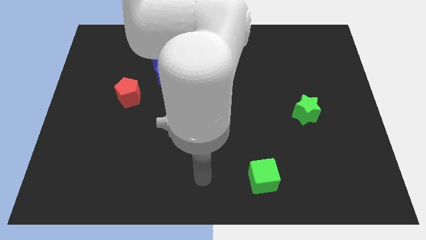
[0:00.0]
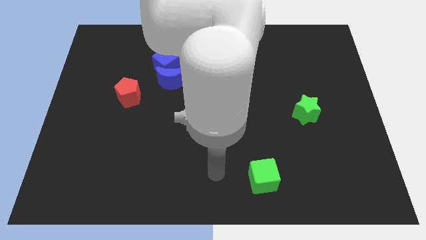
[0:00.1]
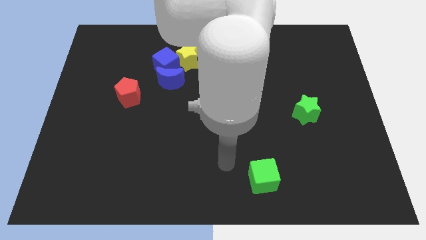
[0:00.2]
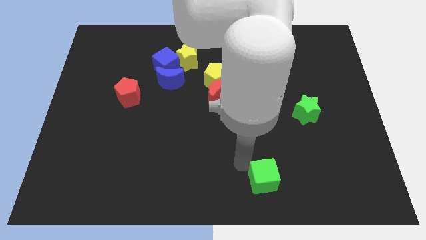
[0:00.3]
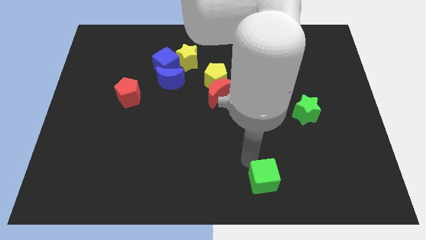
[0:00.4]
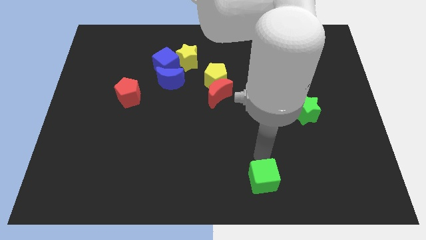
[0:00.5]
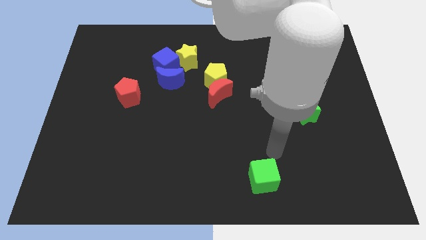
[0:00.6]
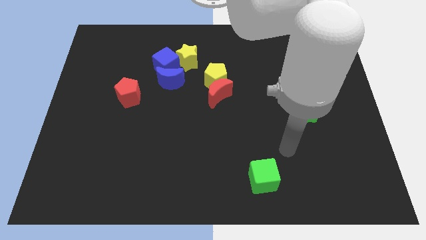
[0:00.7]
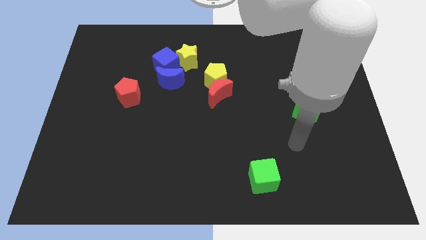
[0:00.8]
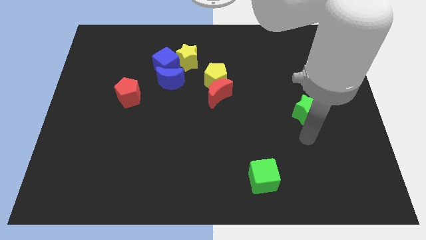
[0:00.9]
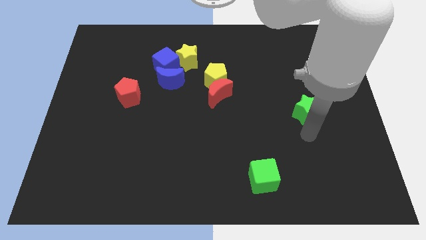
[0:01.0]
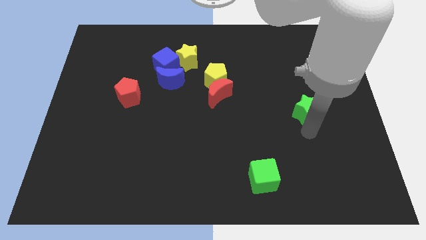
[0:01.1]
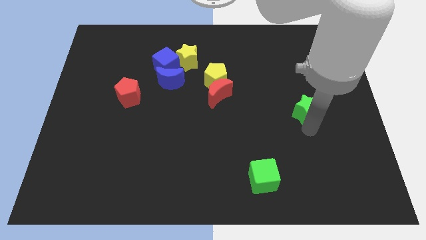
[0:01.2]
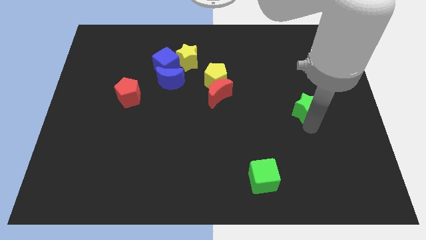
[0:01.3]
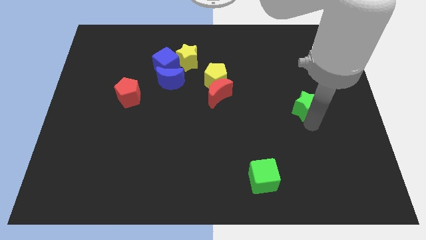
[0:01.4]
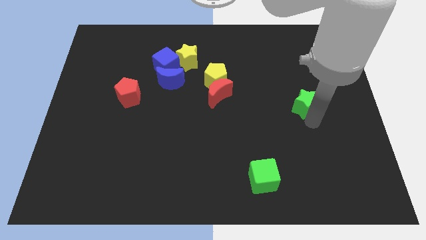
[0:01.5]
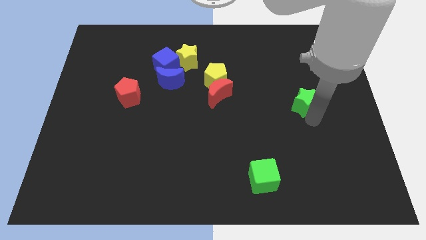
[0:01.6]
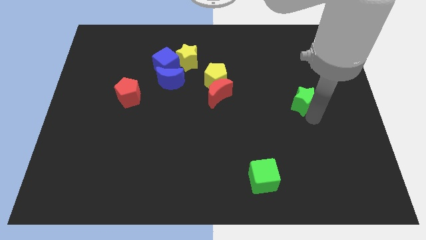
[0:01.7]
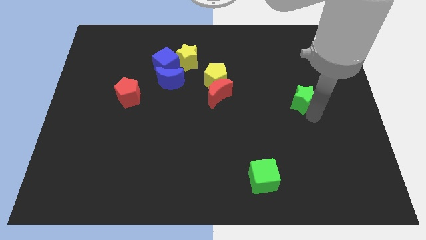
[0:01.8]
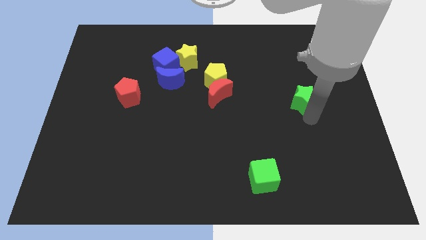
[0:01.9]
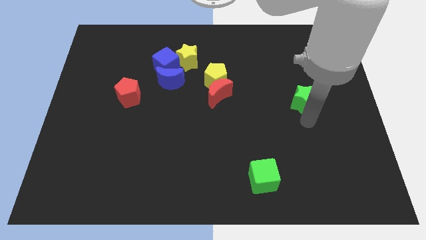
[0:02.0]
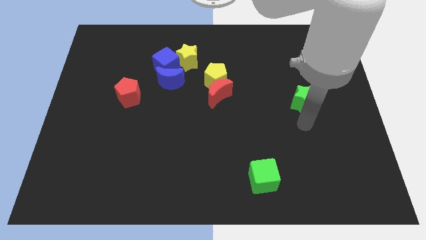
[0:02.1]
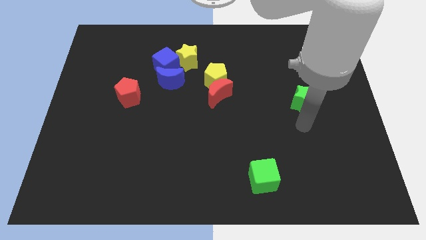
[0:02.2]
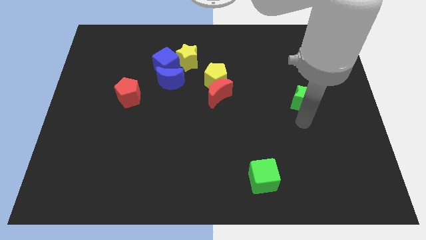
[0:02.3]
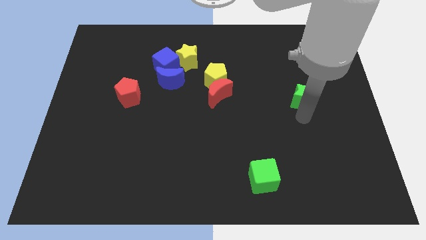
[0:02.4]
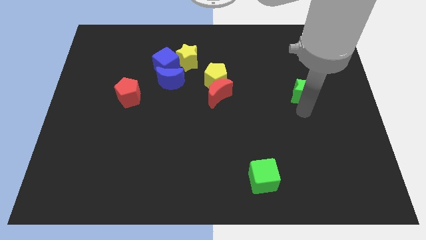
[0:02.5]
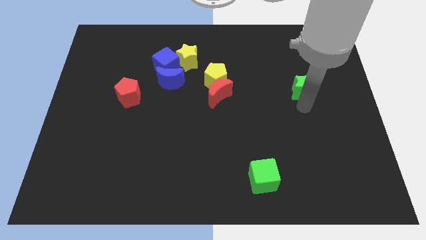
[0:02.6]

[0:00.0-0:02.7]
move the green star upwards somewhat

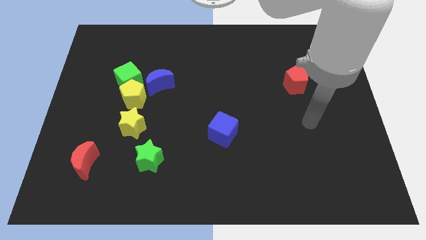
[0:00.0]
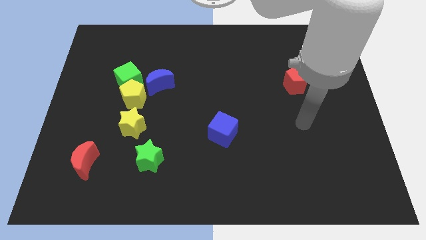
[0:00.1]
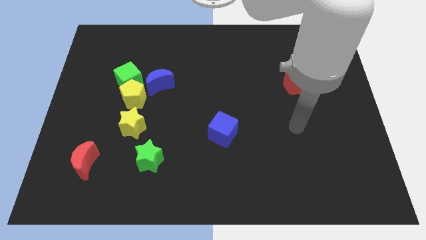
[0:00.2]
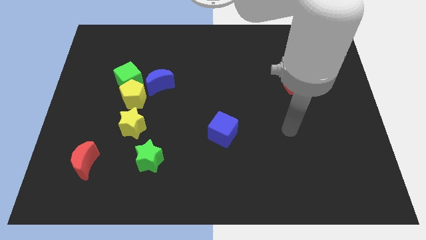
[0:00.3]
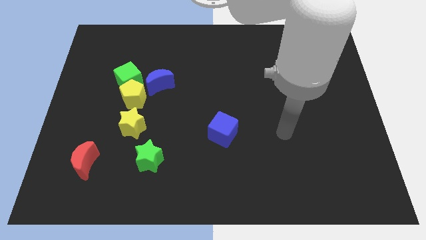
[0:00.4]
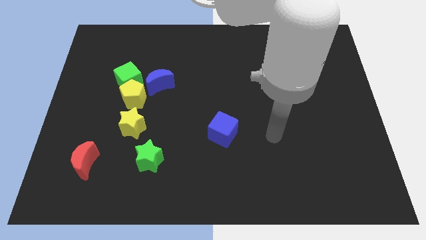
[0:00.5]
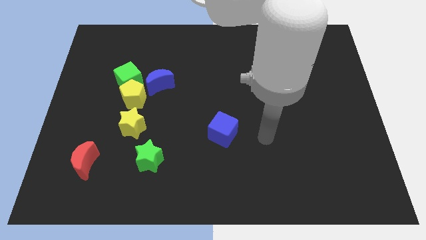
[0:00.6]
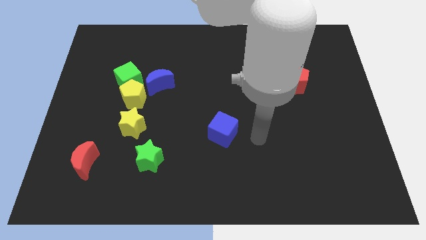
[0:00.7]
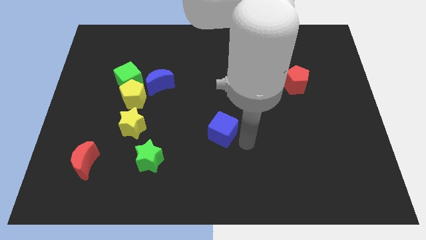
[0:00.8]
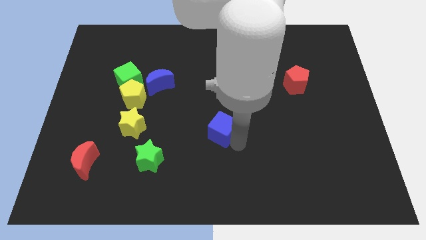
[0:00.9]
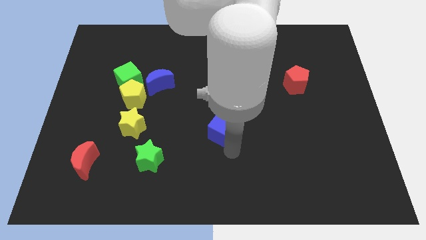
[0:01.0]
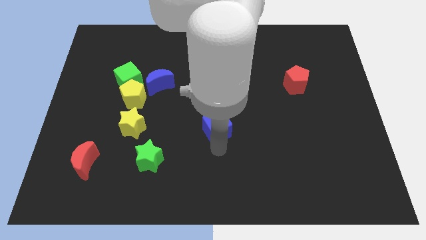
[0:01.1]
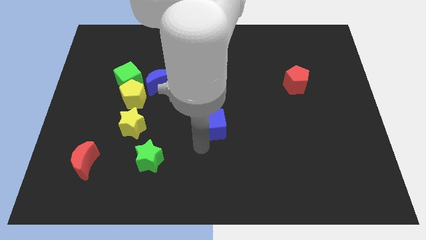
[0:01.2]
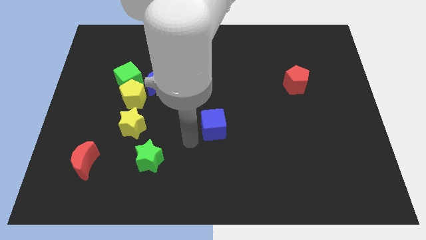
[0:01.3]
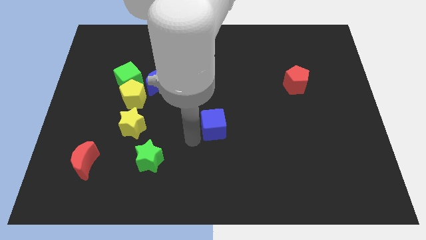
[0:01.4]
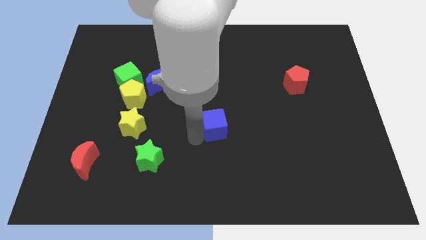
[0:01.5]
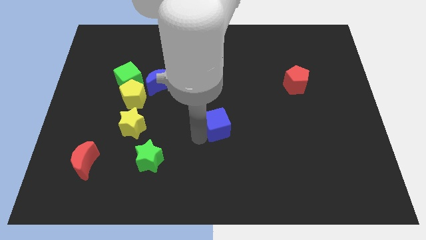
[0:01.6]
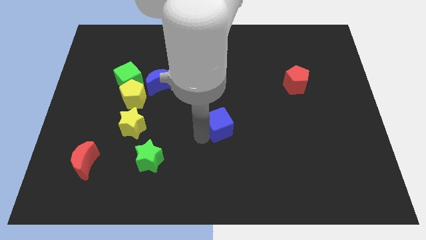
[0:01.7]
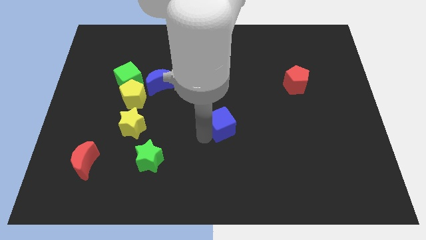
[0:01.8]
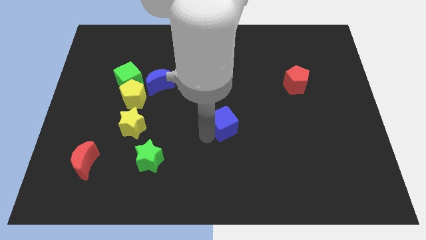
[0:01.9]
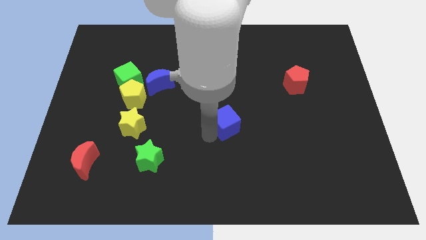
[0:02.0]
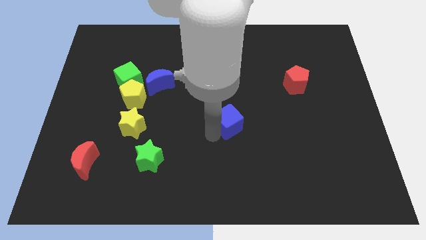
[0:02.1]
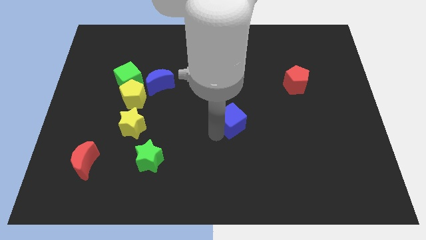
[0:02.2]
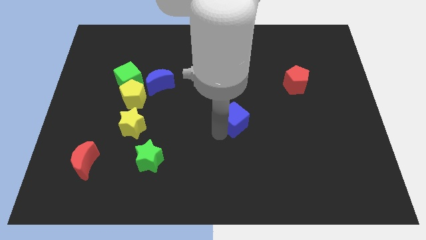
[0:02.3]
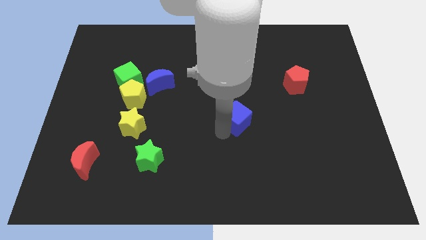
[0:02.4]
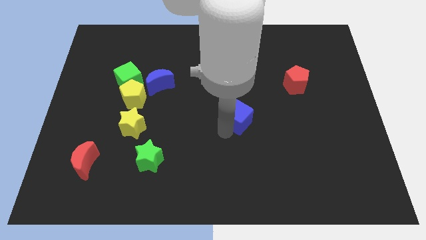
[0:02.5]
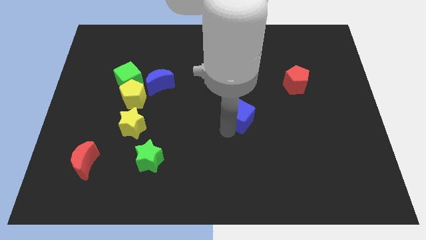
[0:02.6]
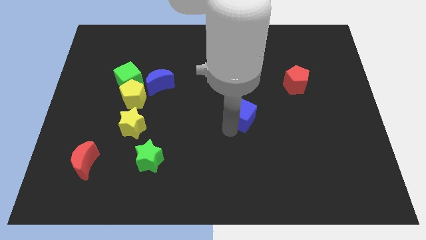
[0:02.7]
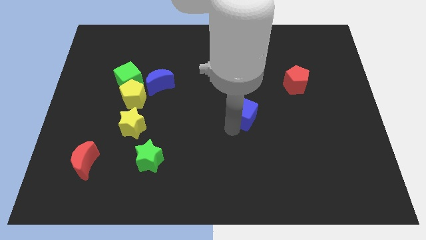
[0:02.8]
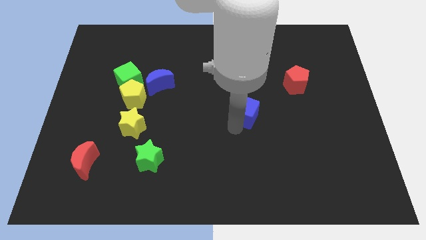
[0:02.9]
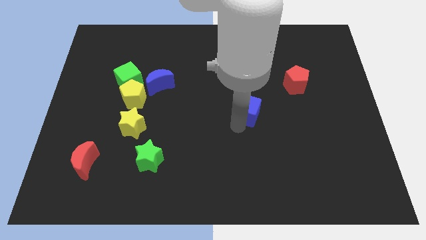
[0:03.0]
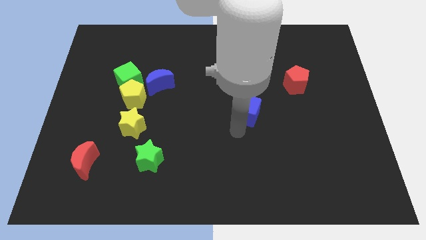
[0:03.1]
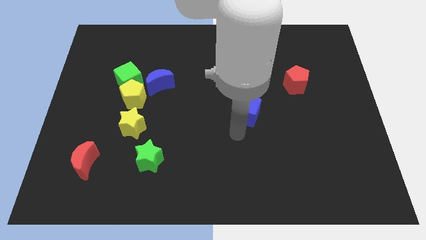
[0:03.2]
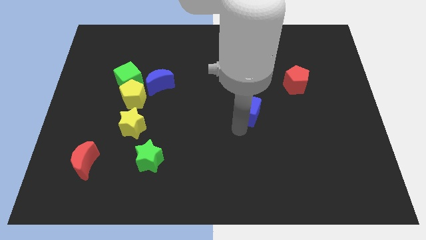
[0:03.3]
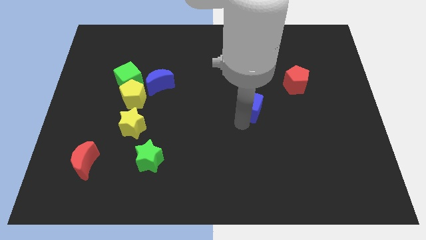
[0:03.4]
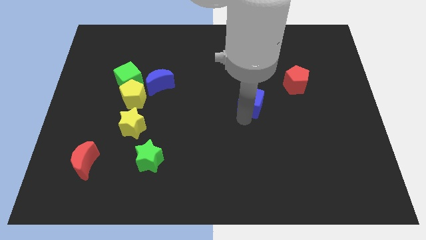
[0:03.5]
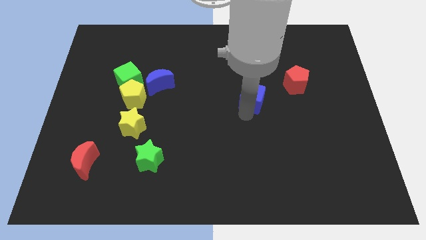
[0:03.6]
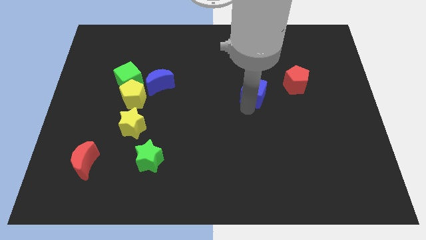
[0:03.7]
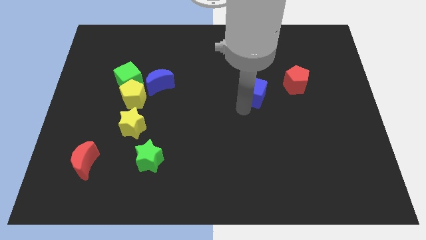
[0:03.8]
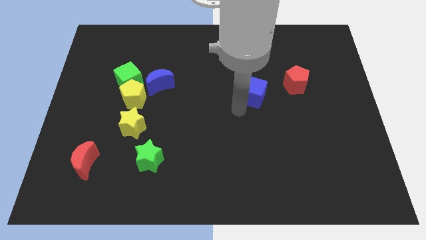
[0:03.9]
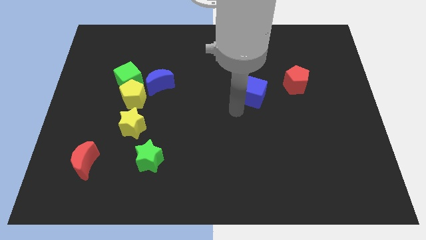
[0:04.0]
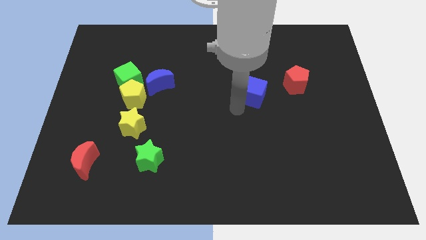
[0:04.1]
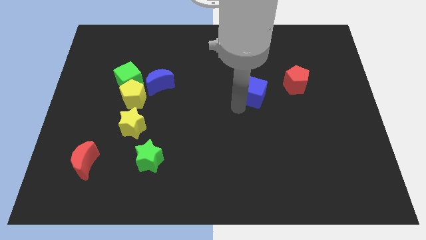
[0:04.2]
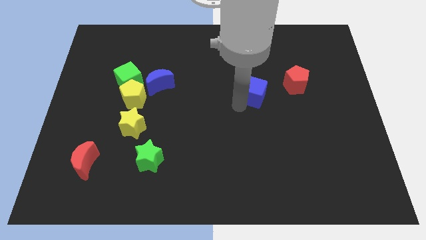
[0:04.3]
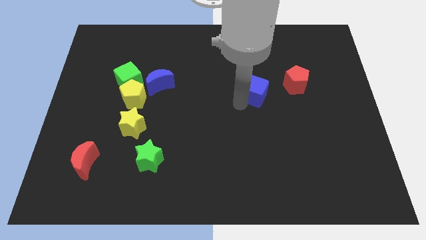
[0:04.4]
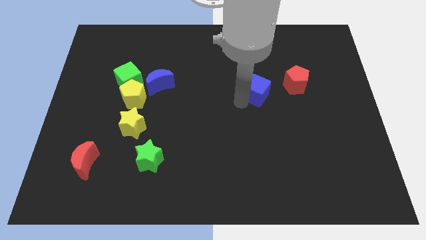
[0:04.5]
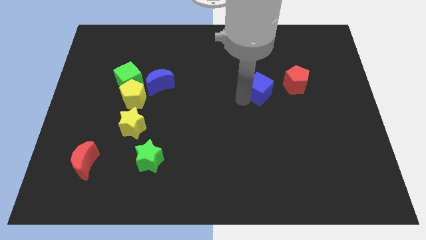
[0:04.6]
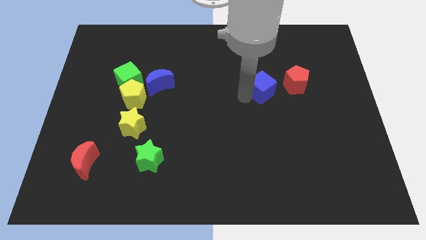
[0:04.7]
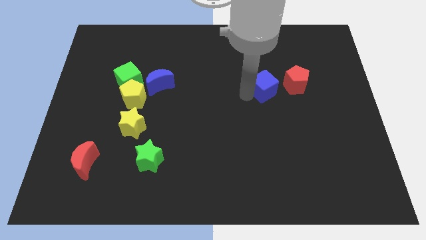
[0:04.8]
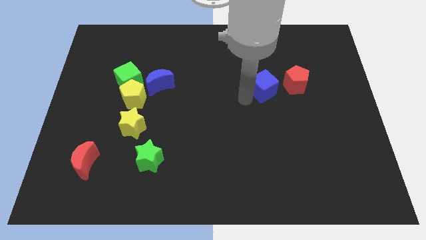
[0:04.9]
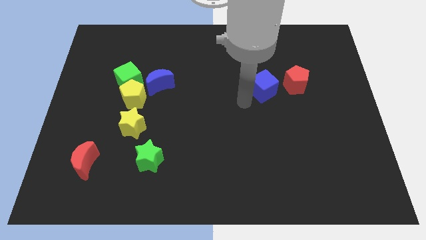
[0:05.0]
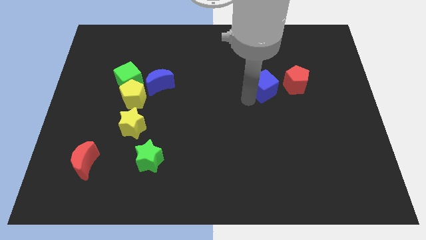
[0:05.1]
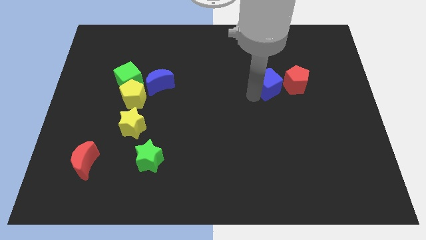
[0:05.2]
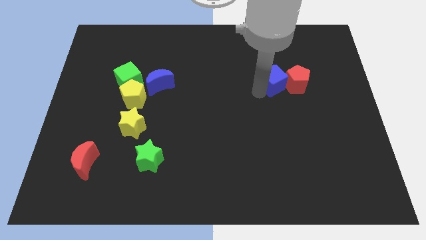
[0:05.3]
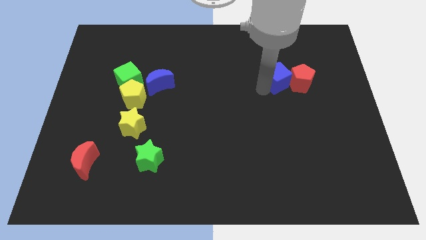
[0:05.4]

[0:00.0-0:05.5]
push the blue cube up and right
